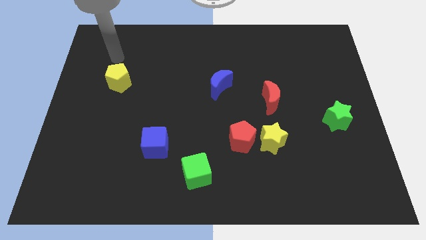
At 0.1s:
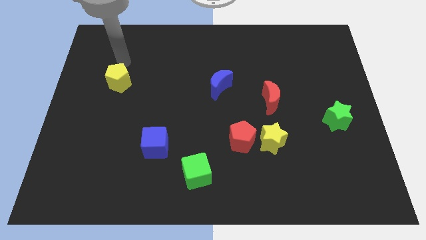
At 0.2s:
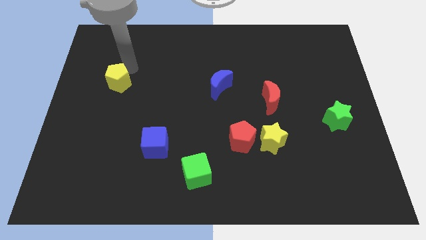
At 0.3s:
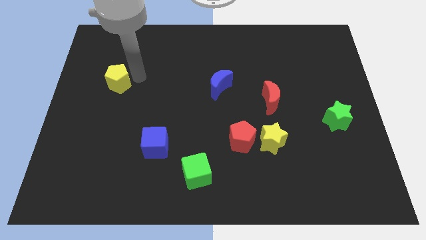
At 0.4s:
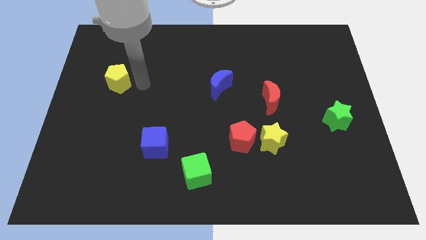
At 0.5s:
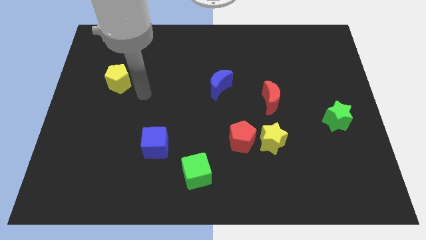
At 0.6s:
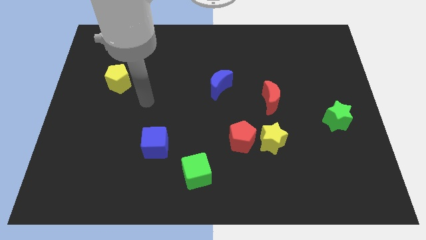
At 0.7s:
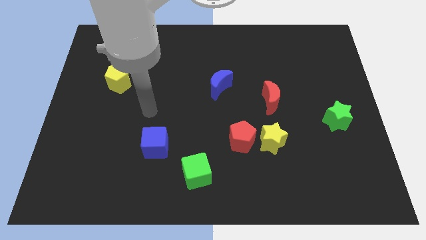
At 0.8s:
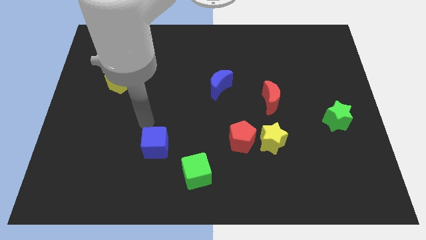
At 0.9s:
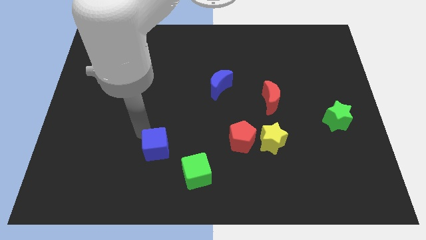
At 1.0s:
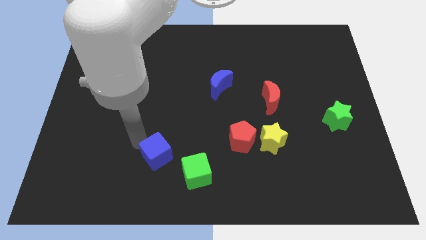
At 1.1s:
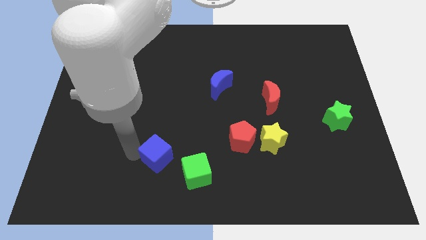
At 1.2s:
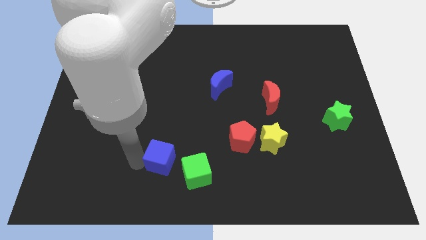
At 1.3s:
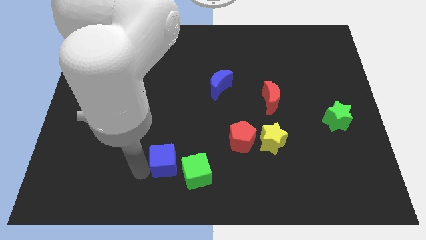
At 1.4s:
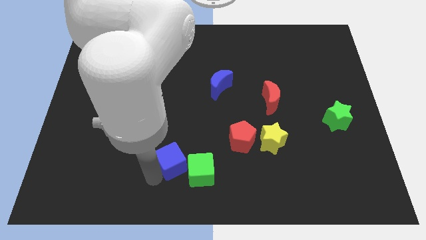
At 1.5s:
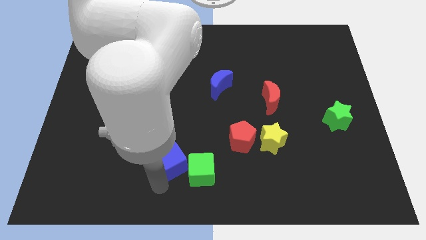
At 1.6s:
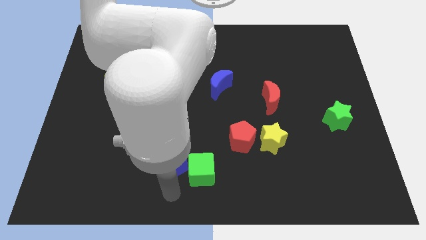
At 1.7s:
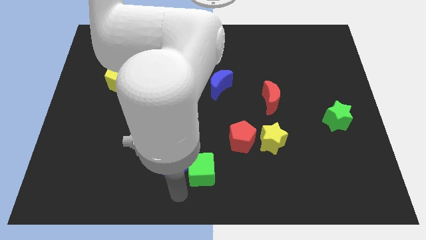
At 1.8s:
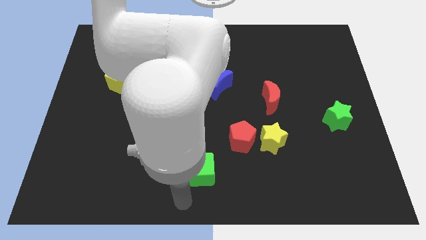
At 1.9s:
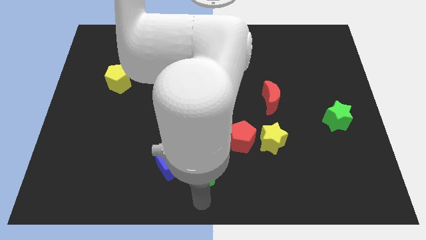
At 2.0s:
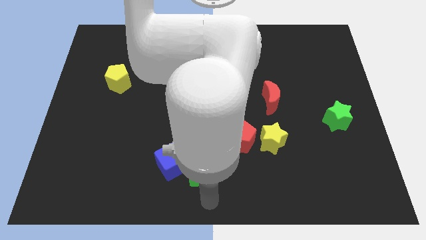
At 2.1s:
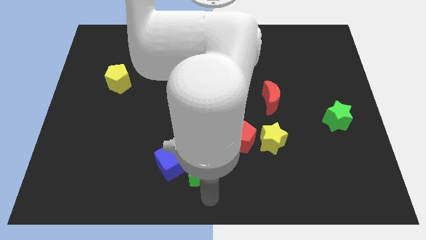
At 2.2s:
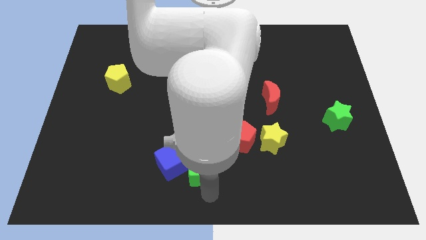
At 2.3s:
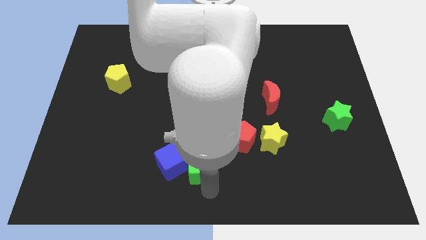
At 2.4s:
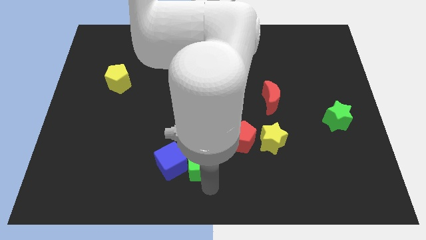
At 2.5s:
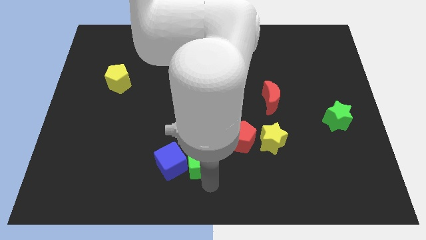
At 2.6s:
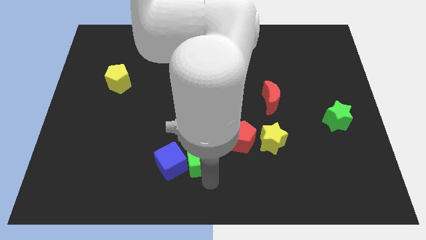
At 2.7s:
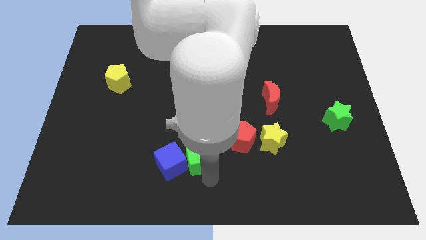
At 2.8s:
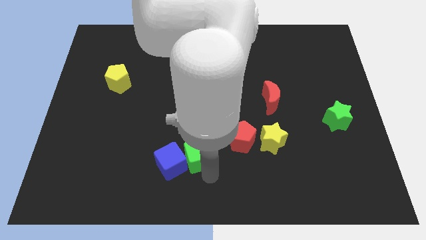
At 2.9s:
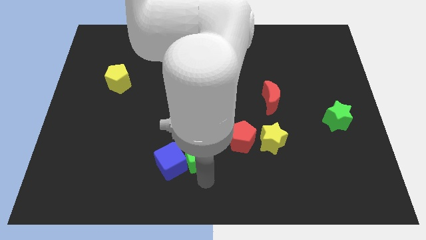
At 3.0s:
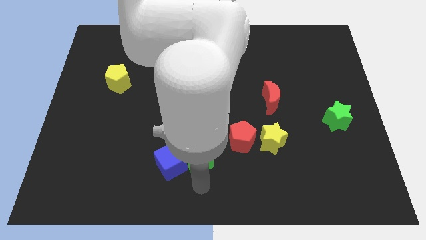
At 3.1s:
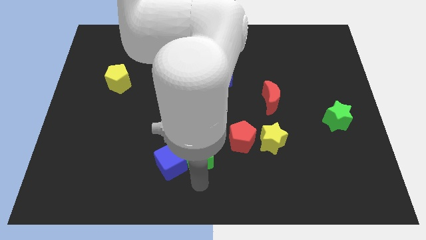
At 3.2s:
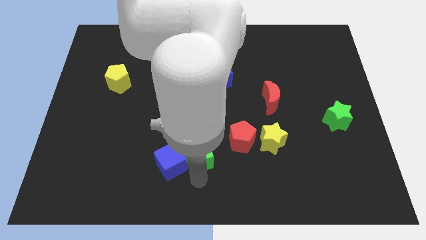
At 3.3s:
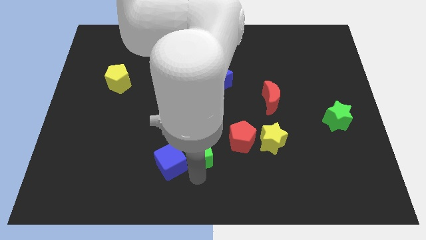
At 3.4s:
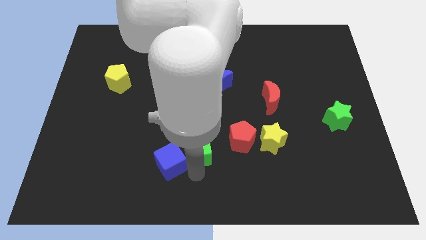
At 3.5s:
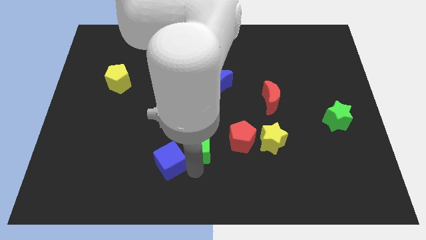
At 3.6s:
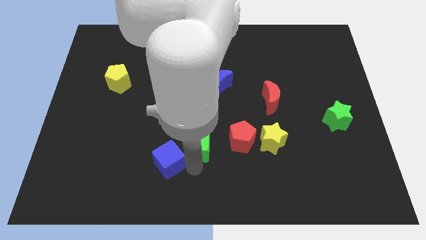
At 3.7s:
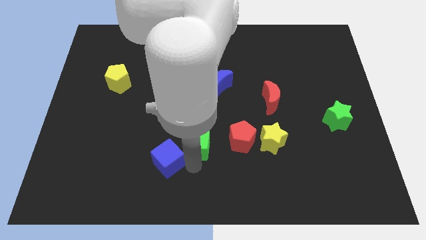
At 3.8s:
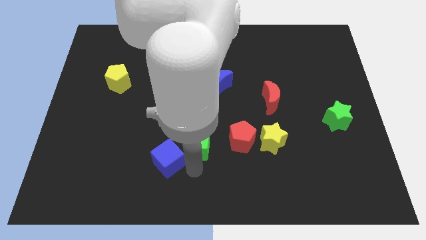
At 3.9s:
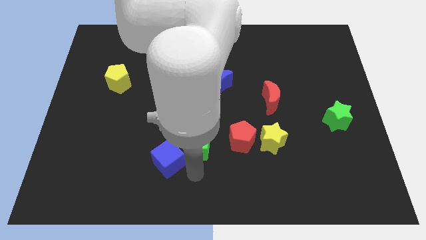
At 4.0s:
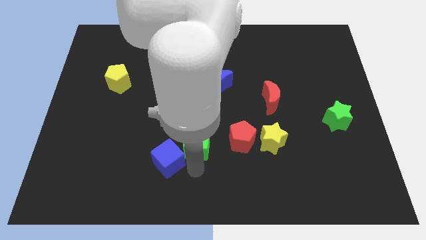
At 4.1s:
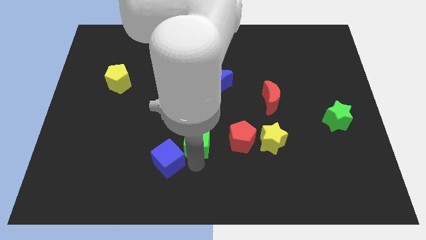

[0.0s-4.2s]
slightly push the green cube upwards

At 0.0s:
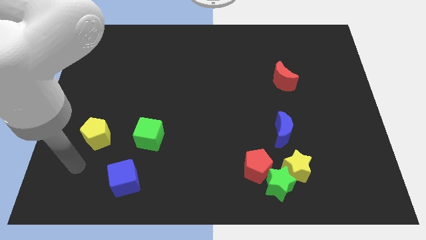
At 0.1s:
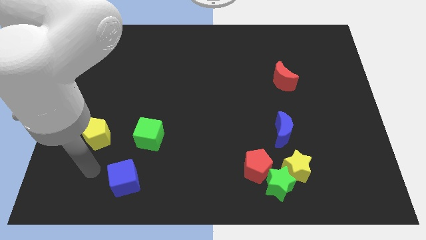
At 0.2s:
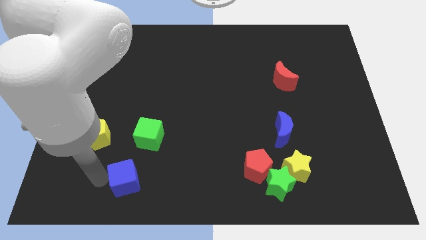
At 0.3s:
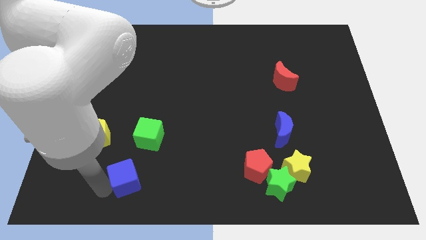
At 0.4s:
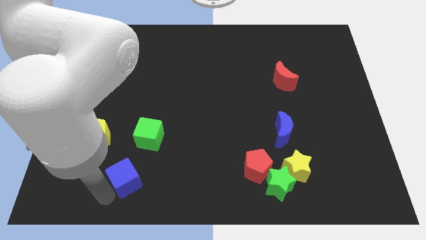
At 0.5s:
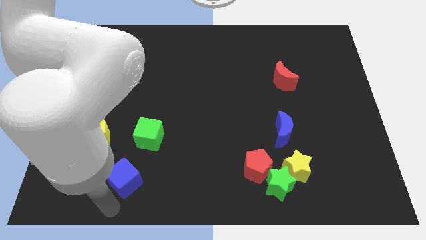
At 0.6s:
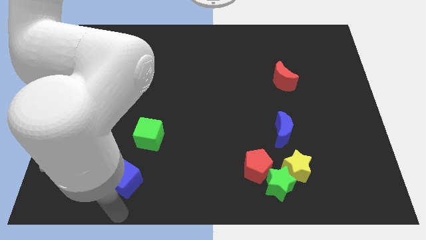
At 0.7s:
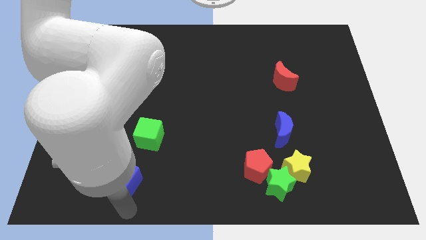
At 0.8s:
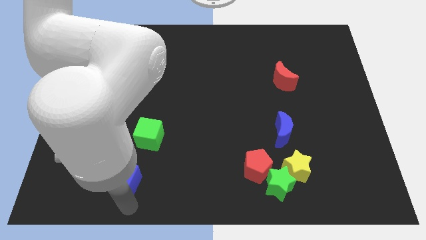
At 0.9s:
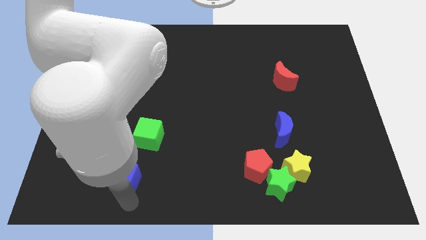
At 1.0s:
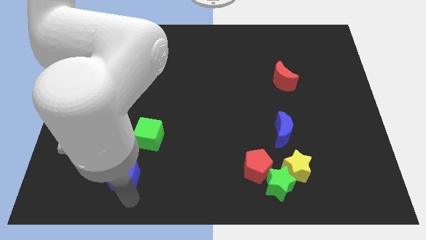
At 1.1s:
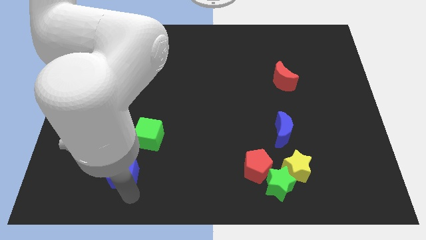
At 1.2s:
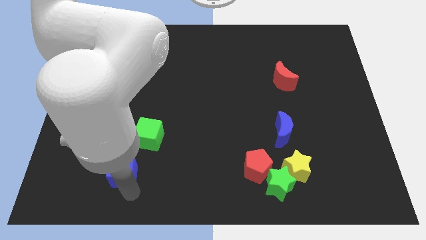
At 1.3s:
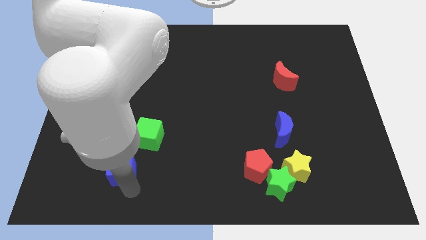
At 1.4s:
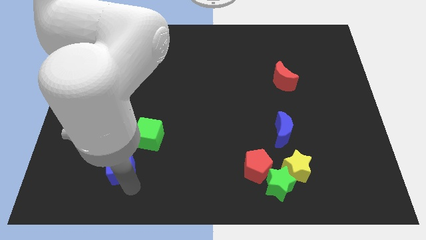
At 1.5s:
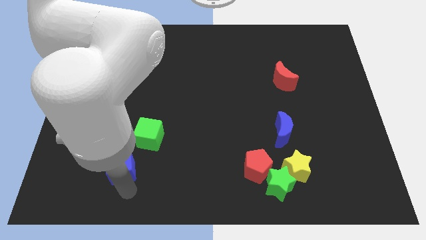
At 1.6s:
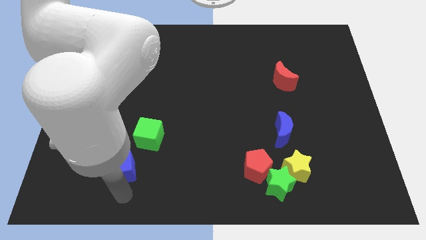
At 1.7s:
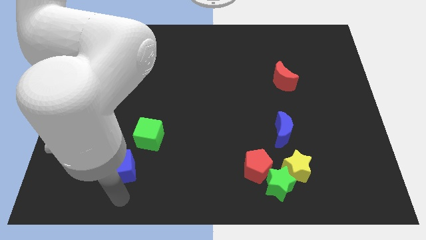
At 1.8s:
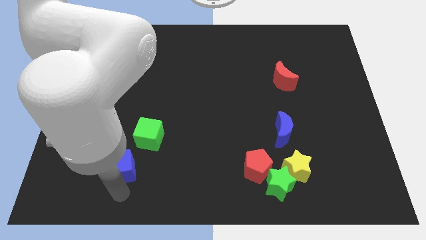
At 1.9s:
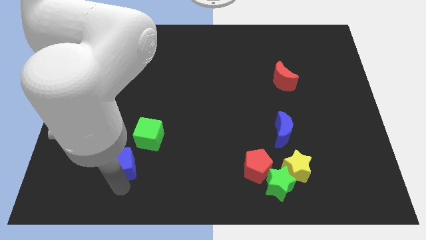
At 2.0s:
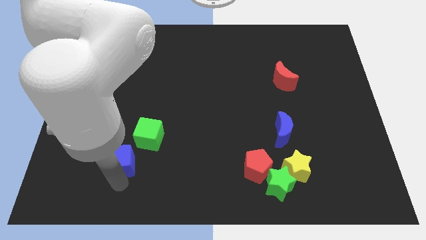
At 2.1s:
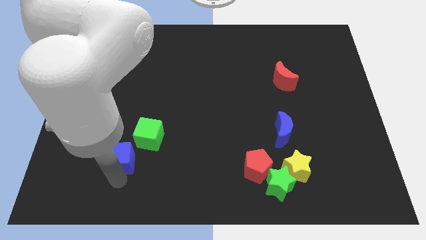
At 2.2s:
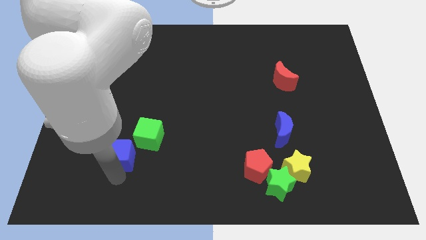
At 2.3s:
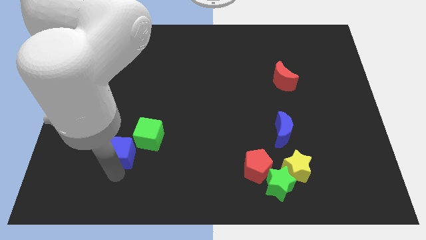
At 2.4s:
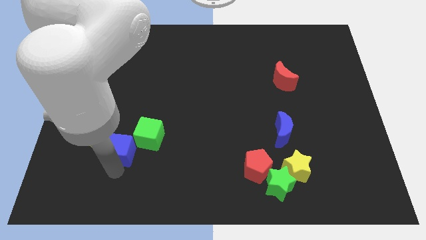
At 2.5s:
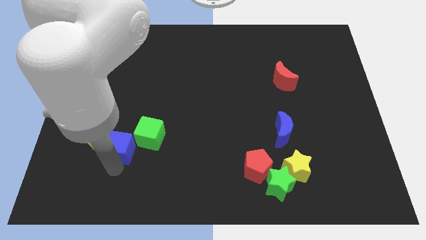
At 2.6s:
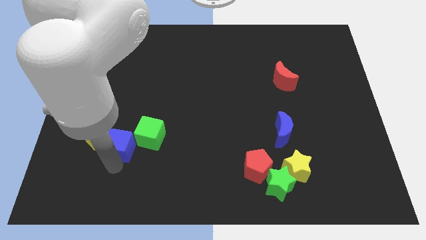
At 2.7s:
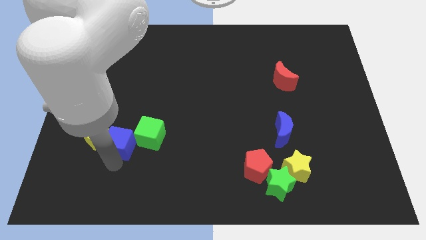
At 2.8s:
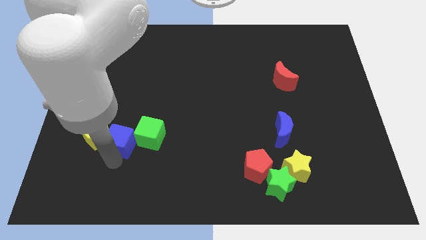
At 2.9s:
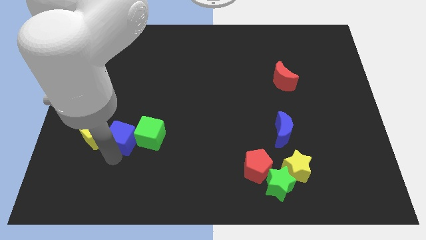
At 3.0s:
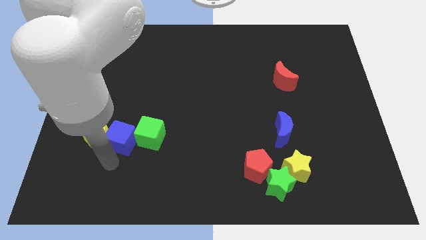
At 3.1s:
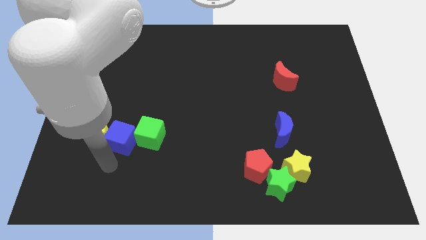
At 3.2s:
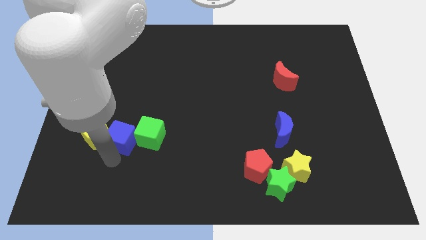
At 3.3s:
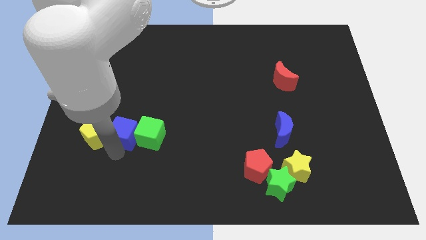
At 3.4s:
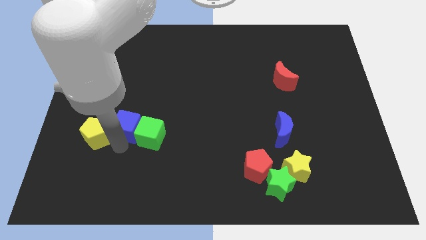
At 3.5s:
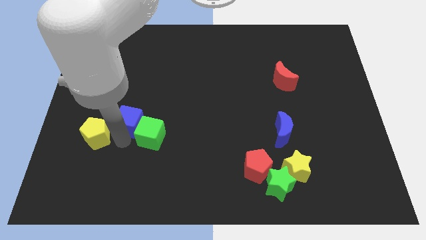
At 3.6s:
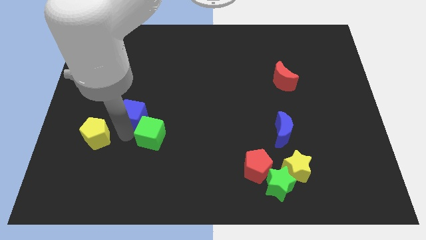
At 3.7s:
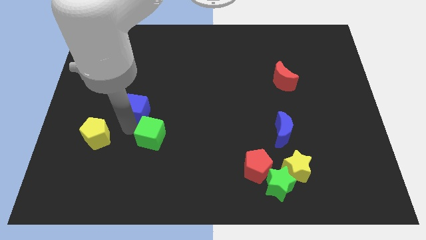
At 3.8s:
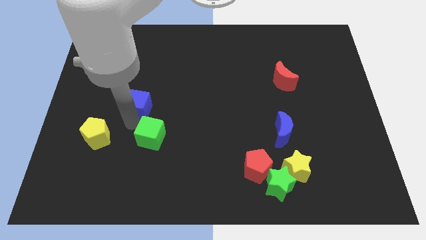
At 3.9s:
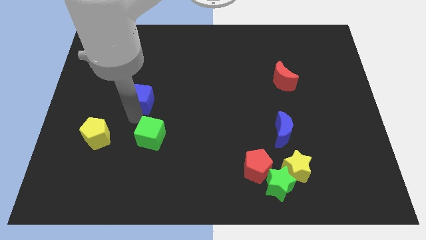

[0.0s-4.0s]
slide the blue cube upwards
